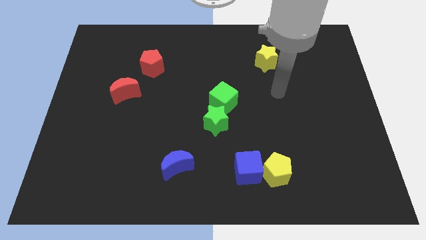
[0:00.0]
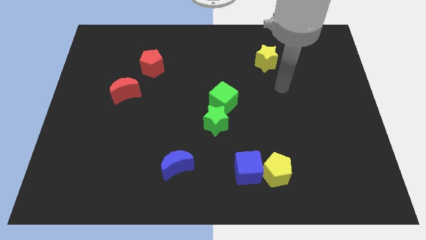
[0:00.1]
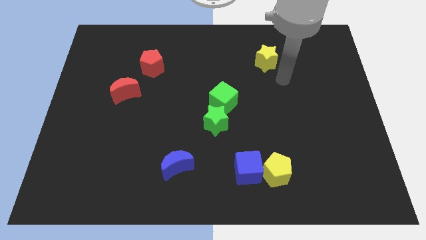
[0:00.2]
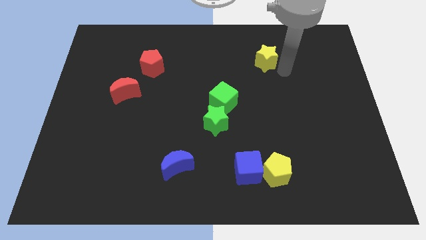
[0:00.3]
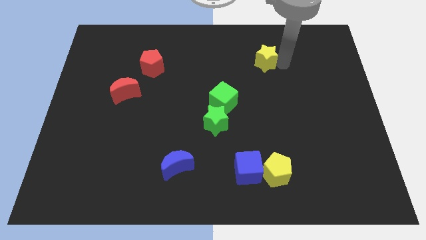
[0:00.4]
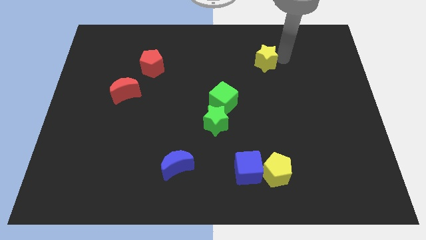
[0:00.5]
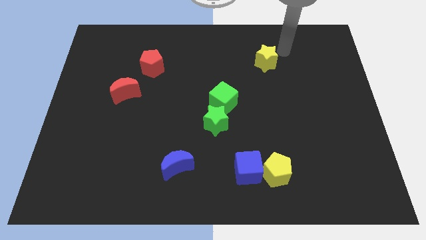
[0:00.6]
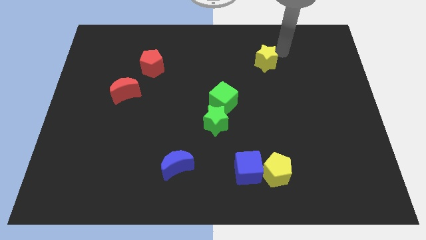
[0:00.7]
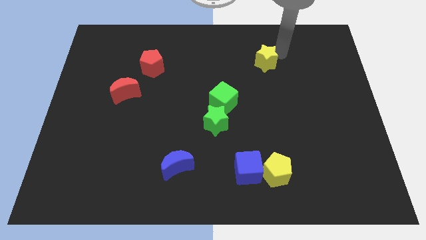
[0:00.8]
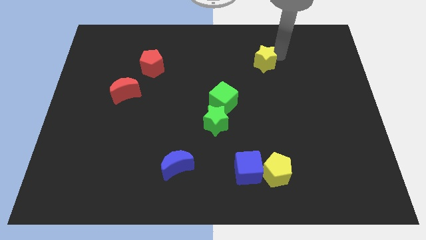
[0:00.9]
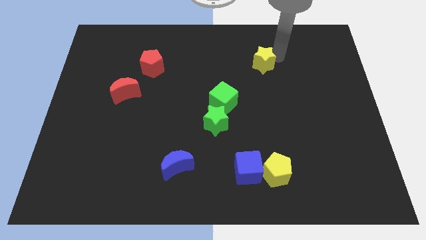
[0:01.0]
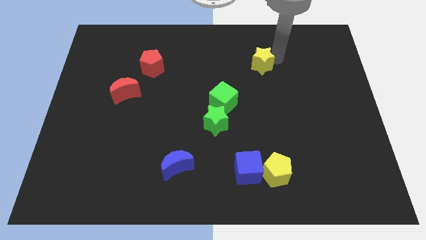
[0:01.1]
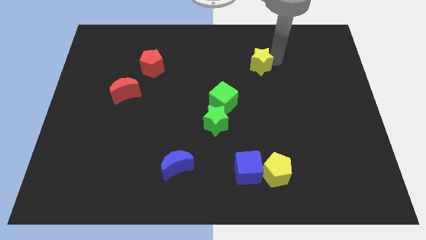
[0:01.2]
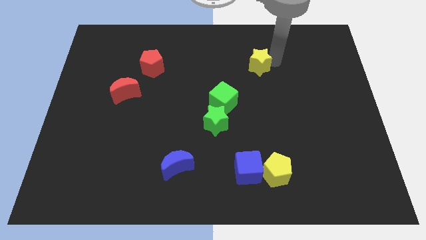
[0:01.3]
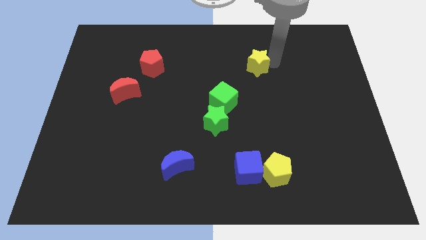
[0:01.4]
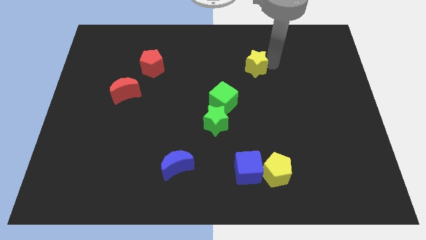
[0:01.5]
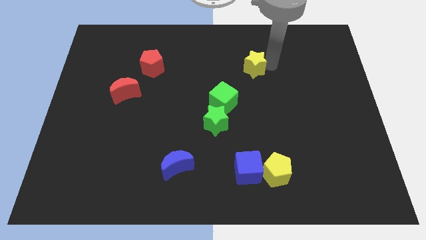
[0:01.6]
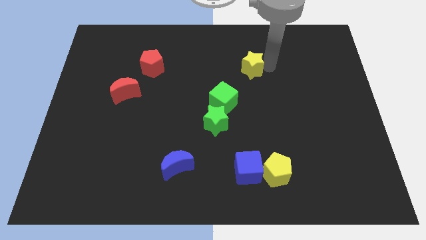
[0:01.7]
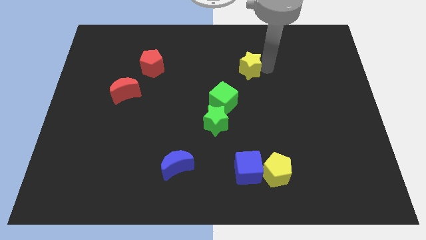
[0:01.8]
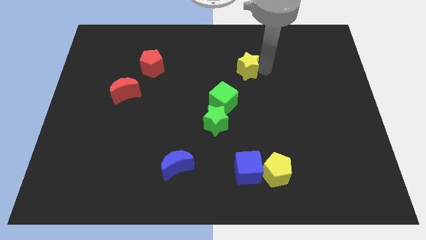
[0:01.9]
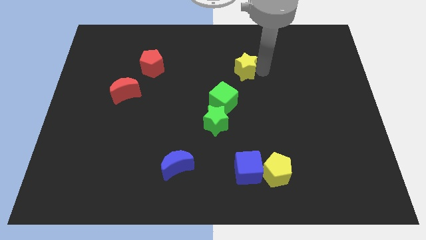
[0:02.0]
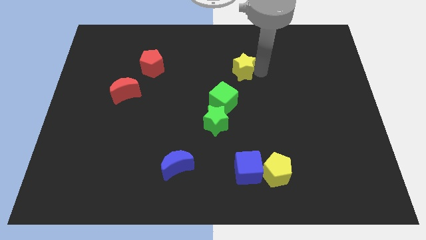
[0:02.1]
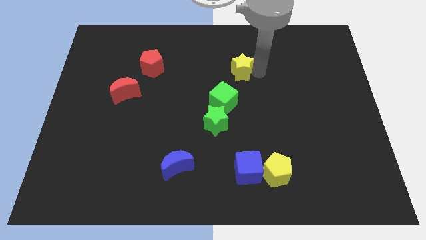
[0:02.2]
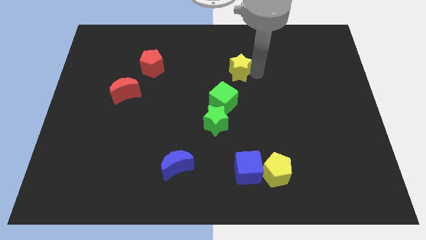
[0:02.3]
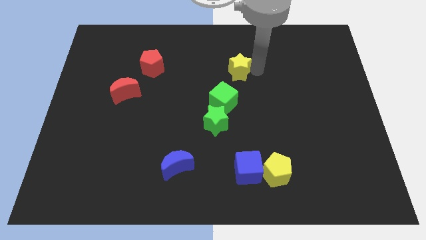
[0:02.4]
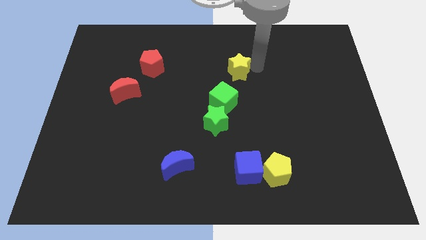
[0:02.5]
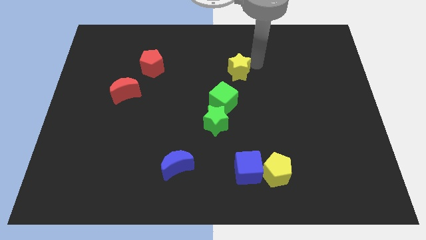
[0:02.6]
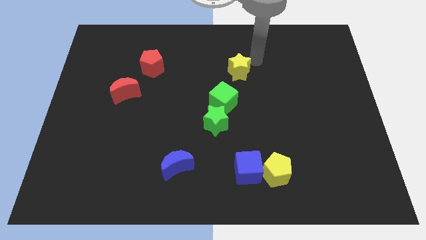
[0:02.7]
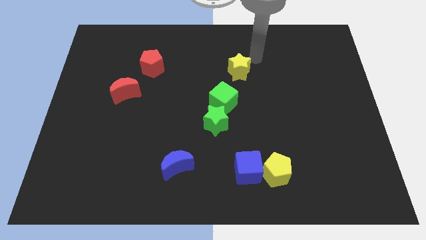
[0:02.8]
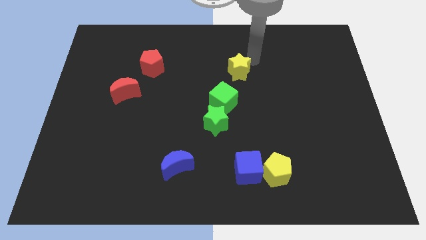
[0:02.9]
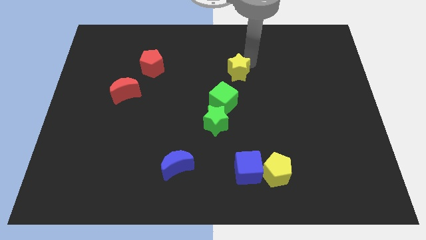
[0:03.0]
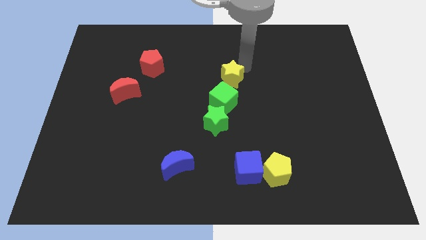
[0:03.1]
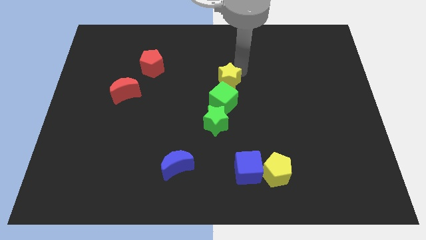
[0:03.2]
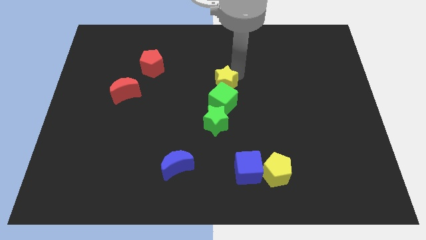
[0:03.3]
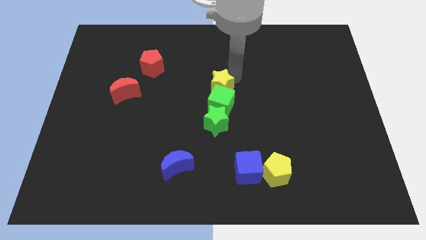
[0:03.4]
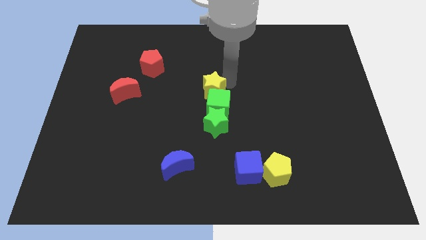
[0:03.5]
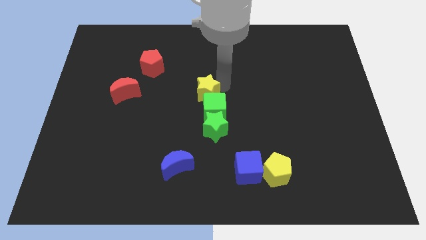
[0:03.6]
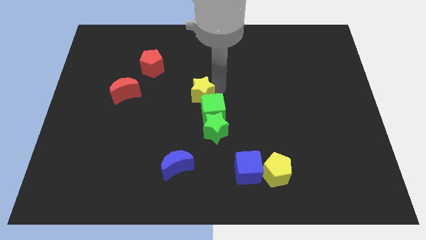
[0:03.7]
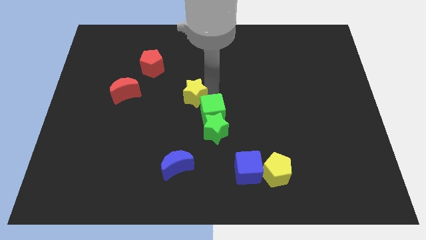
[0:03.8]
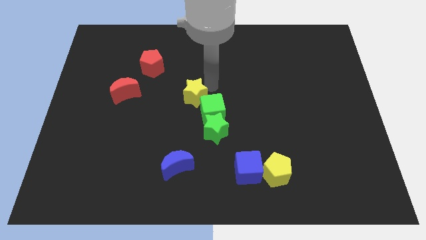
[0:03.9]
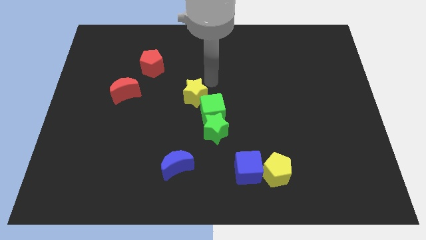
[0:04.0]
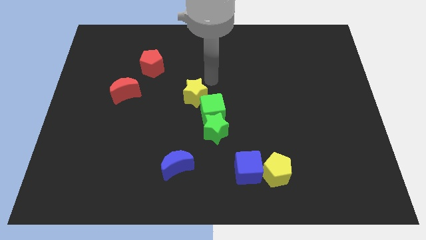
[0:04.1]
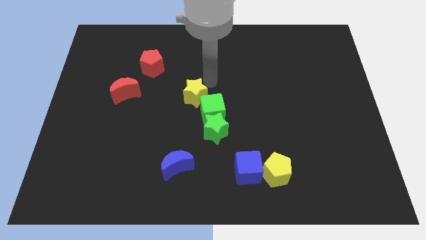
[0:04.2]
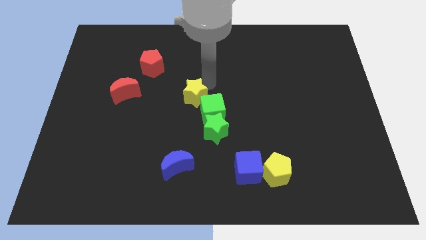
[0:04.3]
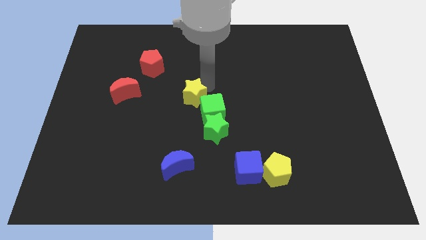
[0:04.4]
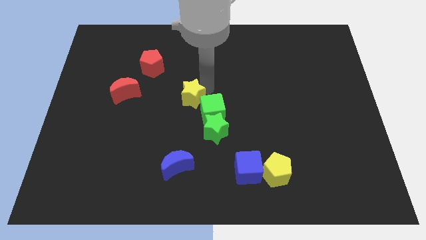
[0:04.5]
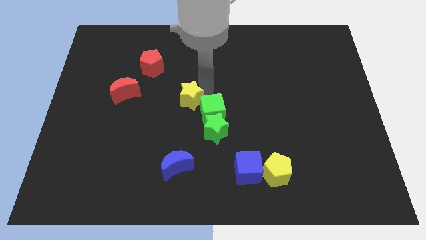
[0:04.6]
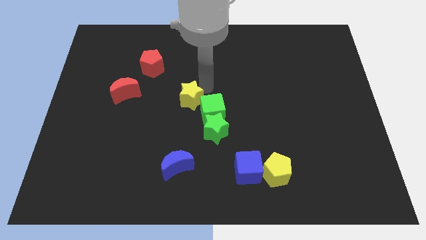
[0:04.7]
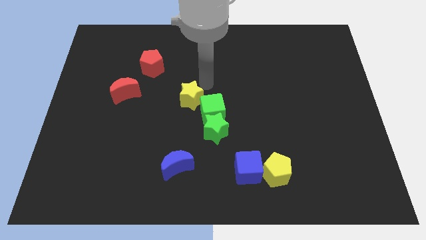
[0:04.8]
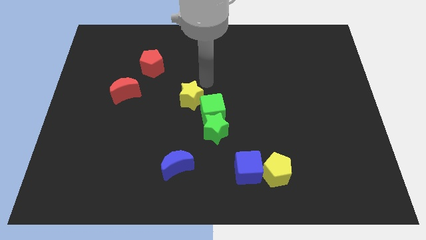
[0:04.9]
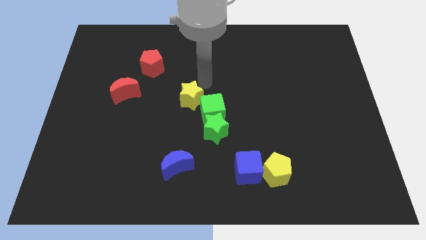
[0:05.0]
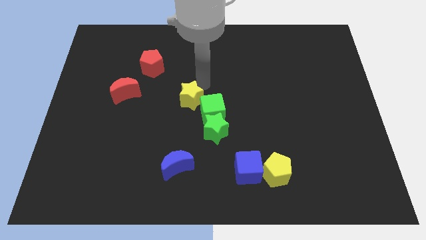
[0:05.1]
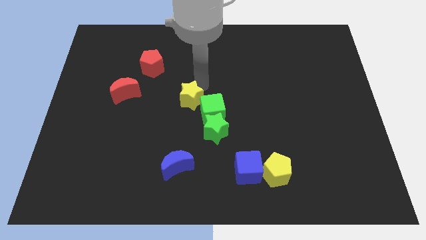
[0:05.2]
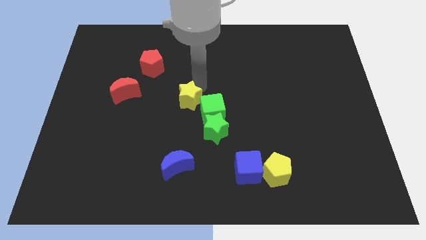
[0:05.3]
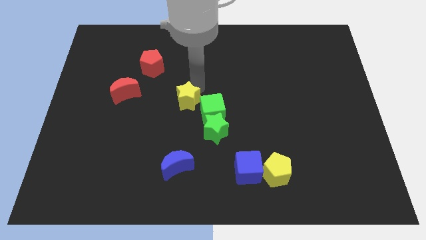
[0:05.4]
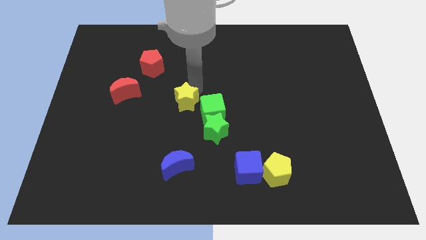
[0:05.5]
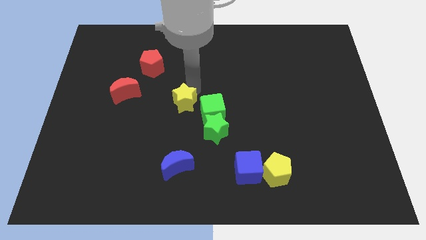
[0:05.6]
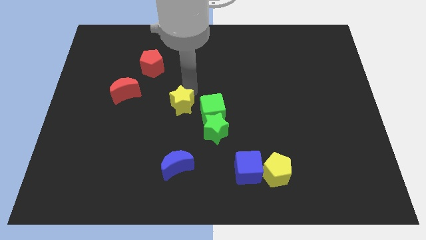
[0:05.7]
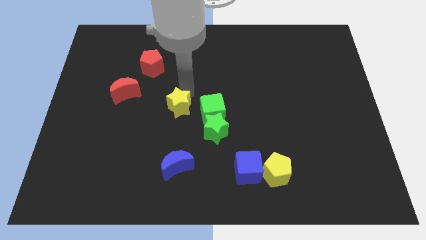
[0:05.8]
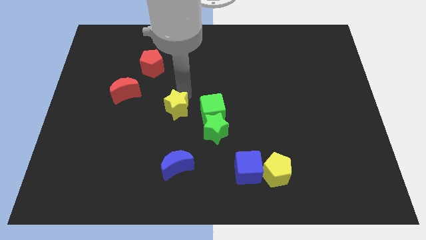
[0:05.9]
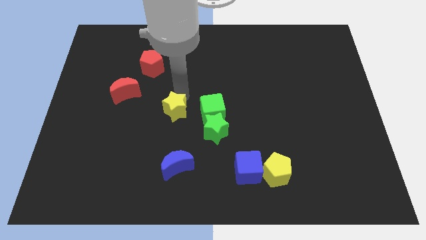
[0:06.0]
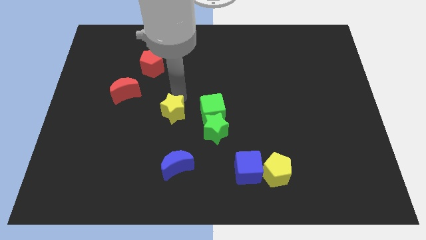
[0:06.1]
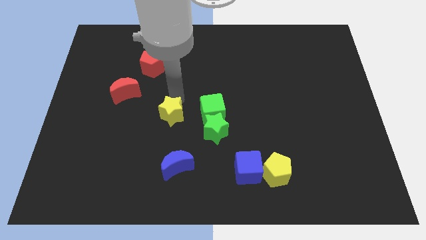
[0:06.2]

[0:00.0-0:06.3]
put the yellow star to the left side of the green star

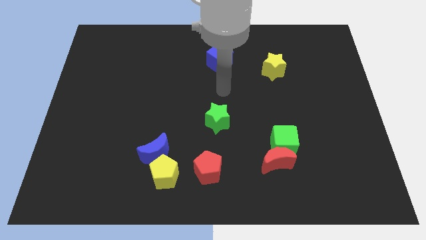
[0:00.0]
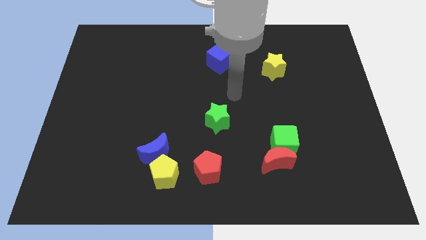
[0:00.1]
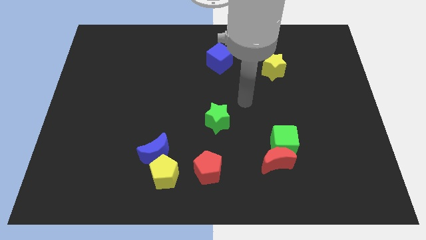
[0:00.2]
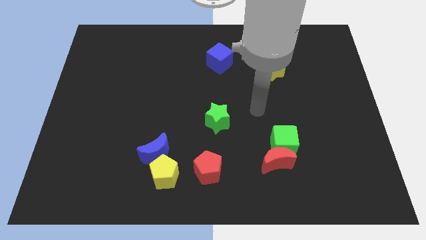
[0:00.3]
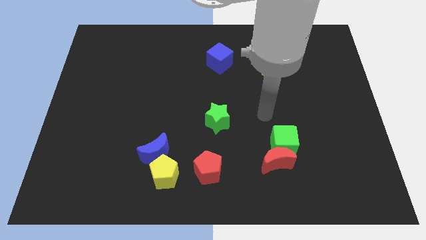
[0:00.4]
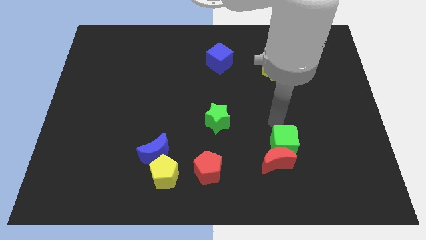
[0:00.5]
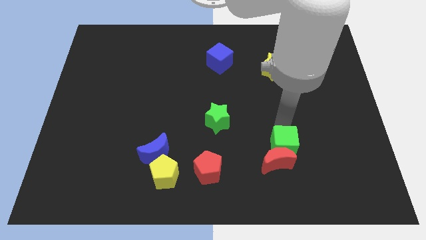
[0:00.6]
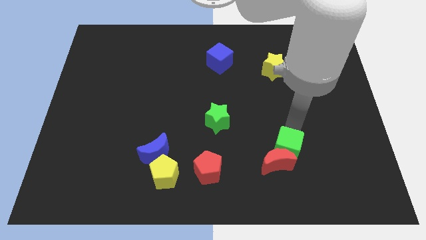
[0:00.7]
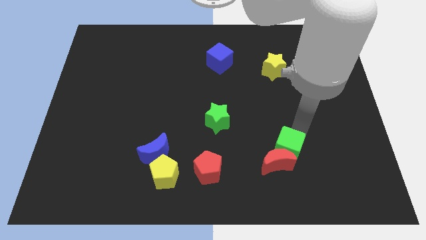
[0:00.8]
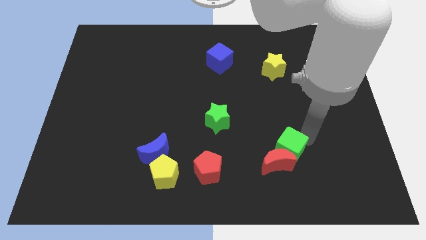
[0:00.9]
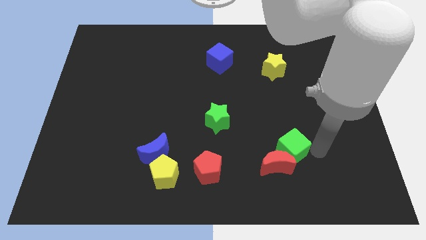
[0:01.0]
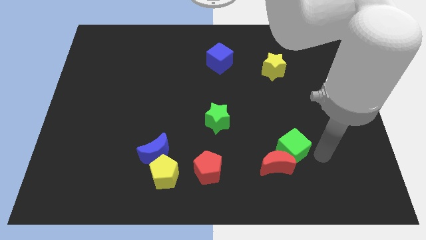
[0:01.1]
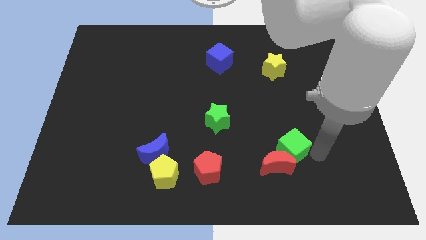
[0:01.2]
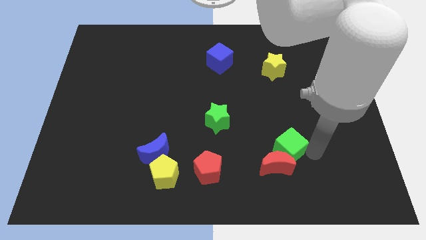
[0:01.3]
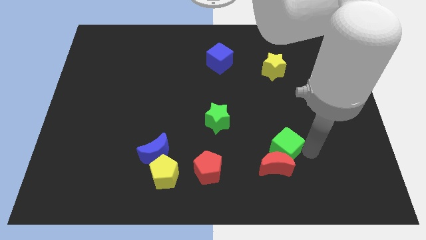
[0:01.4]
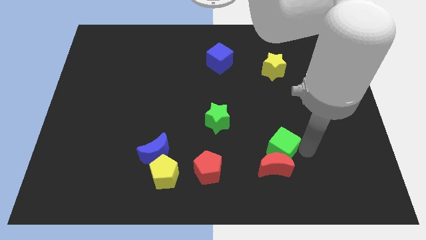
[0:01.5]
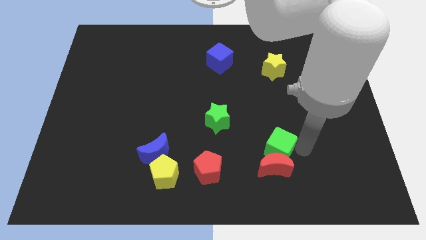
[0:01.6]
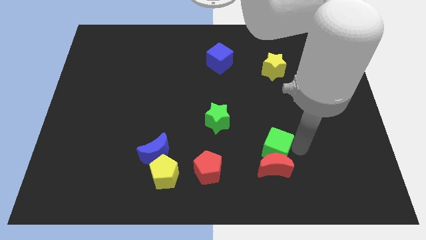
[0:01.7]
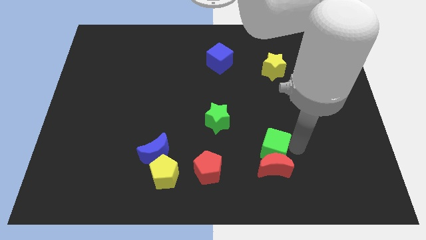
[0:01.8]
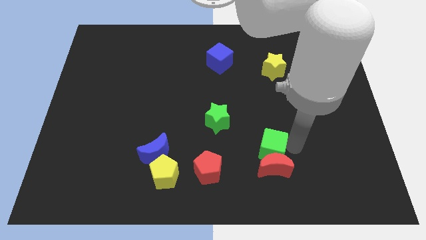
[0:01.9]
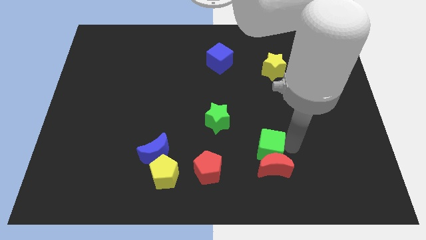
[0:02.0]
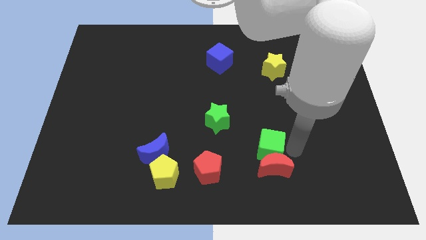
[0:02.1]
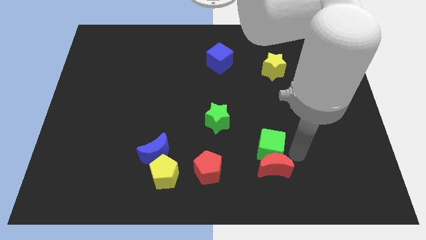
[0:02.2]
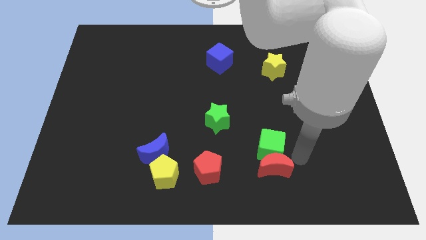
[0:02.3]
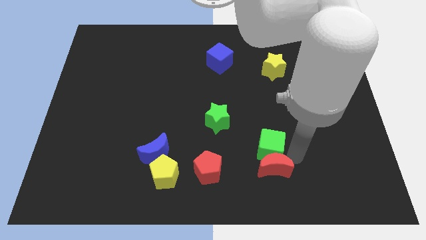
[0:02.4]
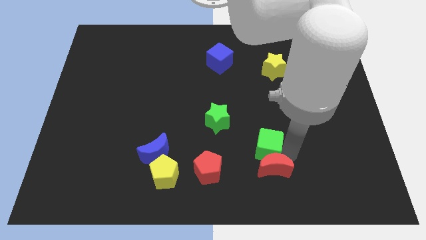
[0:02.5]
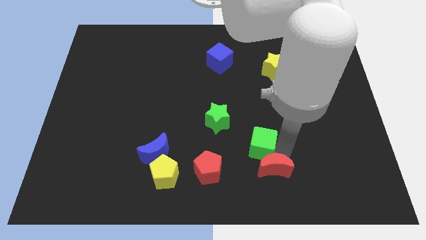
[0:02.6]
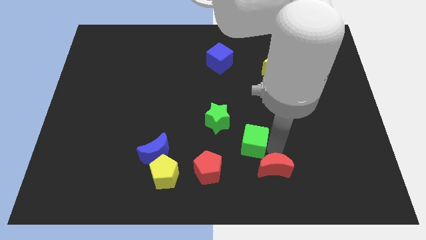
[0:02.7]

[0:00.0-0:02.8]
put the green cube to the top right of the red pentagon
